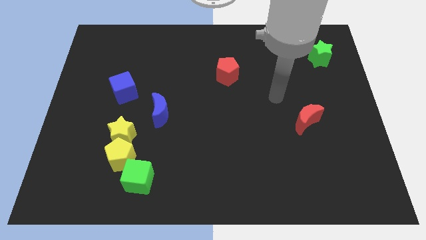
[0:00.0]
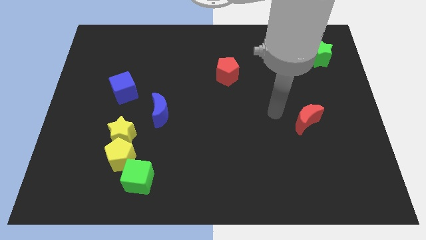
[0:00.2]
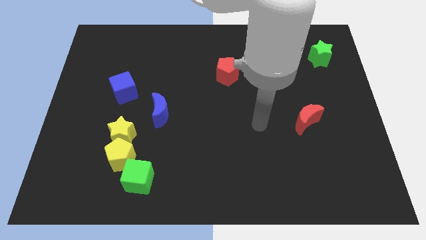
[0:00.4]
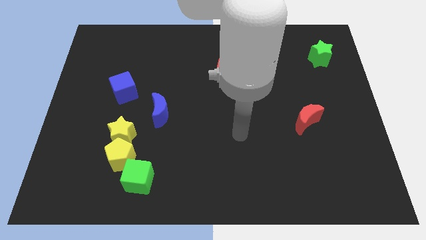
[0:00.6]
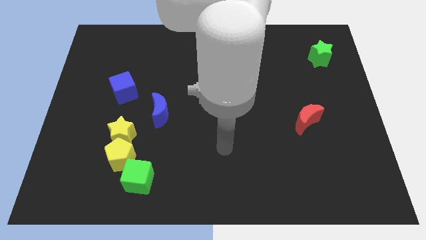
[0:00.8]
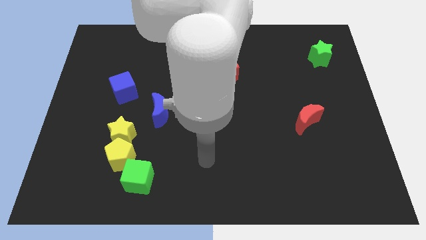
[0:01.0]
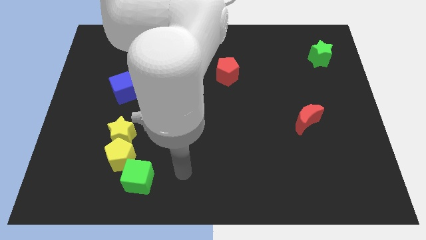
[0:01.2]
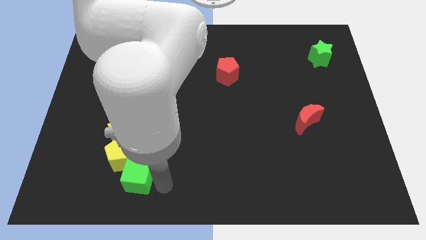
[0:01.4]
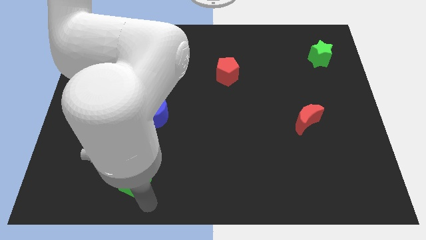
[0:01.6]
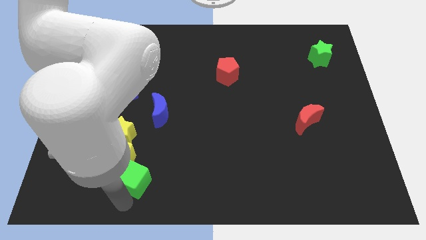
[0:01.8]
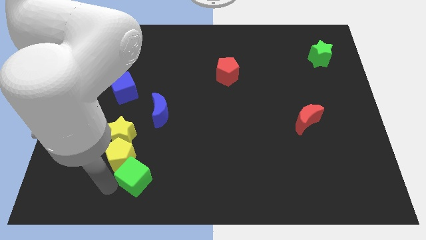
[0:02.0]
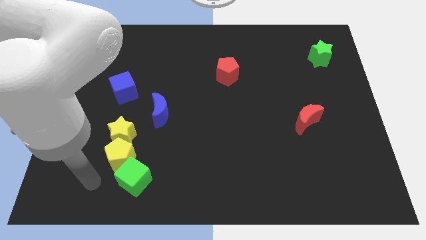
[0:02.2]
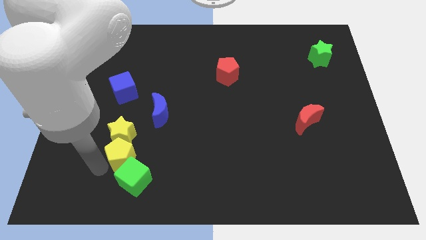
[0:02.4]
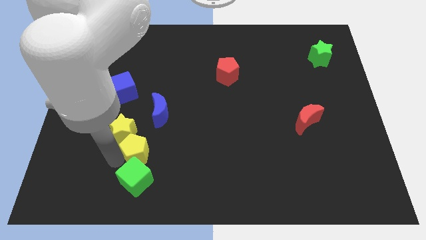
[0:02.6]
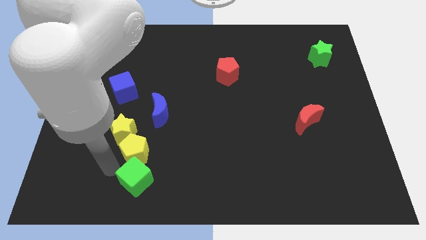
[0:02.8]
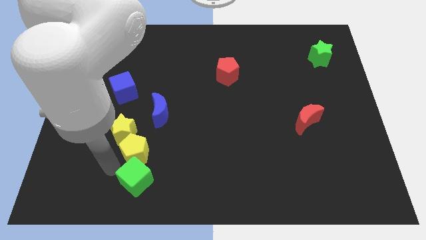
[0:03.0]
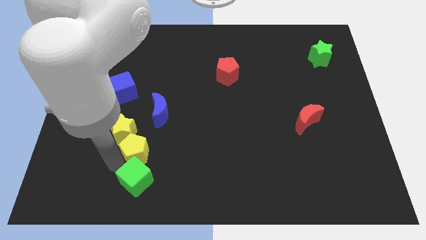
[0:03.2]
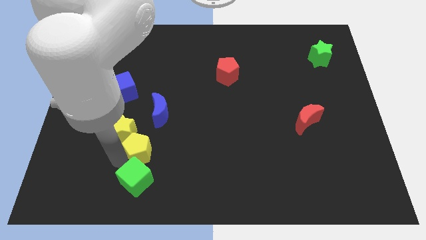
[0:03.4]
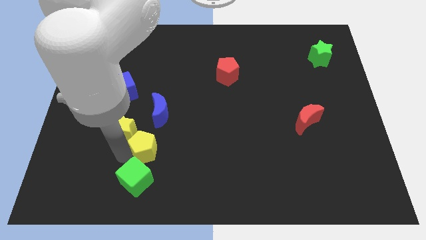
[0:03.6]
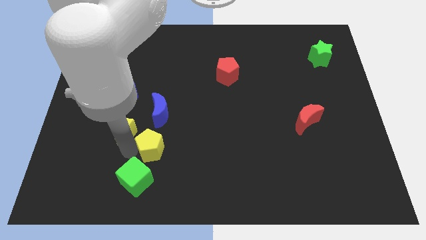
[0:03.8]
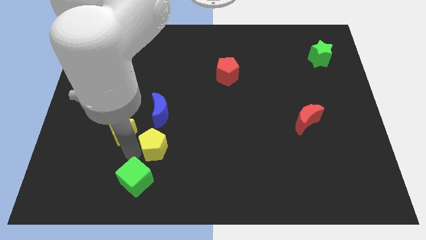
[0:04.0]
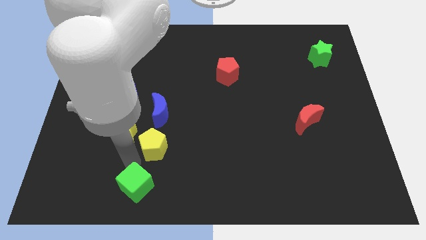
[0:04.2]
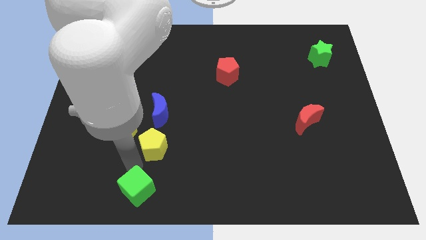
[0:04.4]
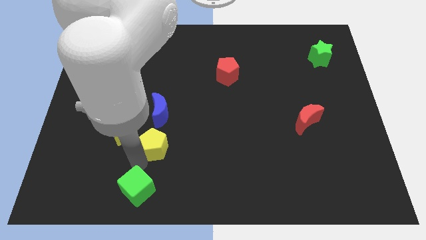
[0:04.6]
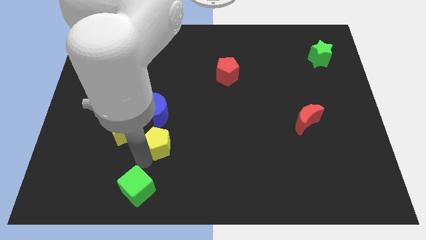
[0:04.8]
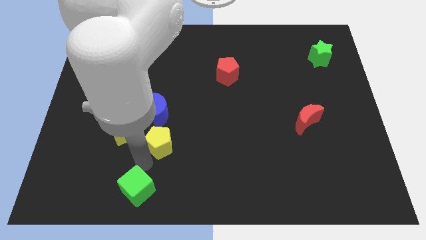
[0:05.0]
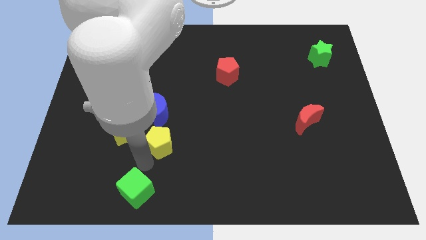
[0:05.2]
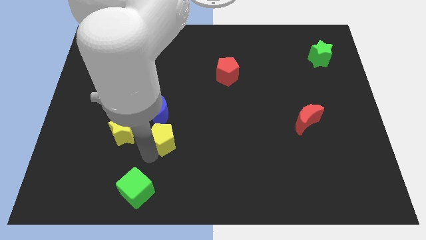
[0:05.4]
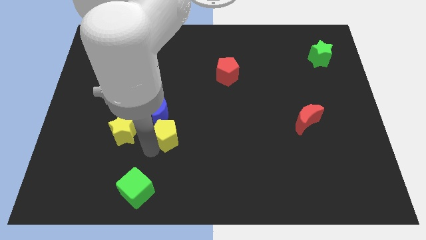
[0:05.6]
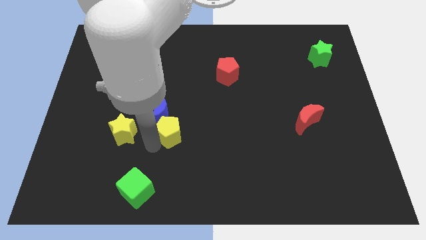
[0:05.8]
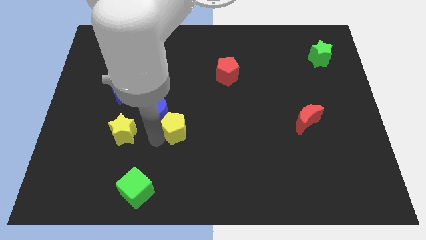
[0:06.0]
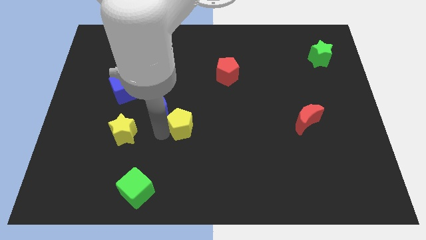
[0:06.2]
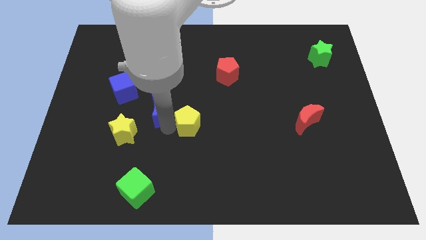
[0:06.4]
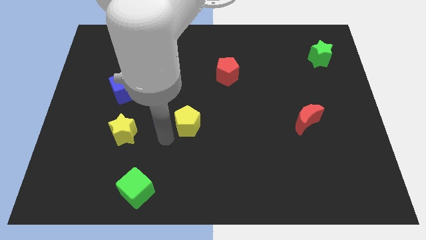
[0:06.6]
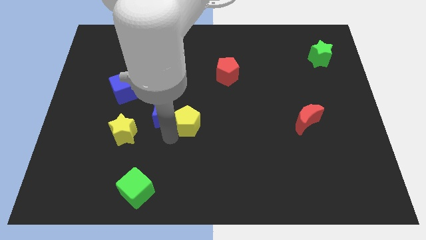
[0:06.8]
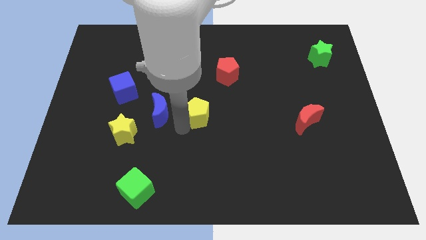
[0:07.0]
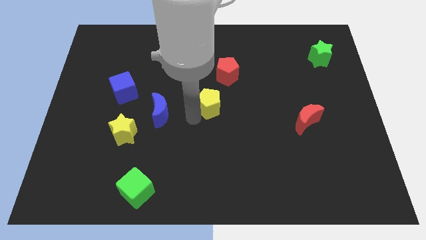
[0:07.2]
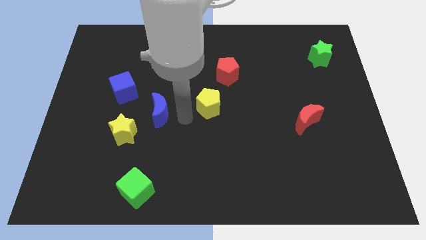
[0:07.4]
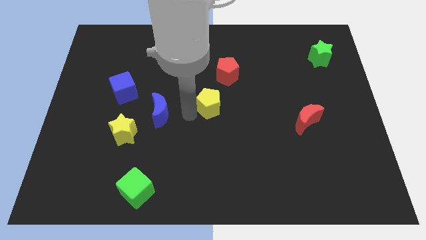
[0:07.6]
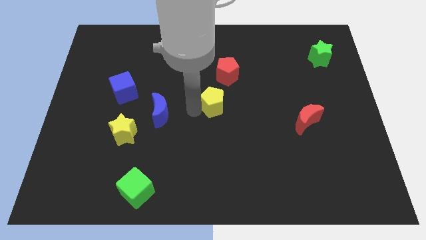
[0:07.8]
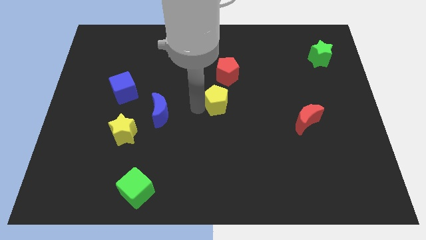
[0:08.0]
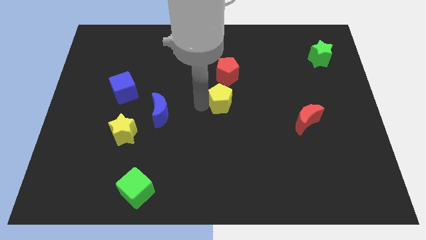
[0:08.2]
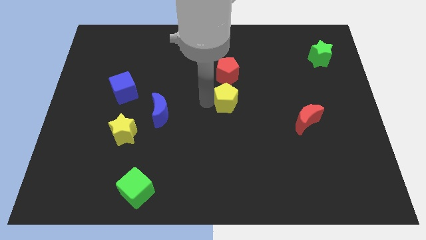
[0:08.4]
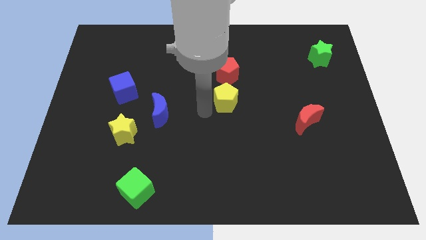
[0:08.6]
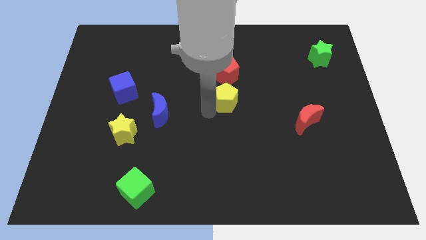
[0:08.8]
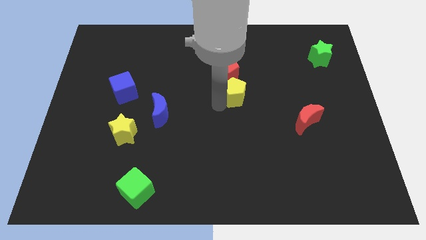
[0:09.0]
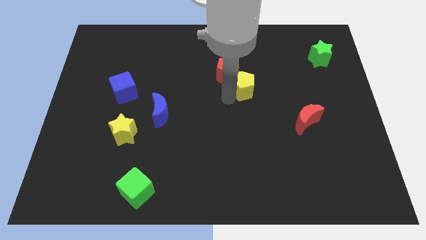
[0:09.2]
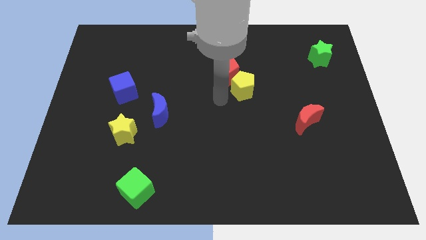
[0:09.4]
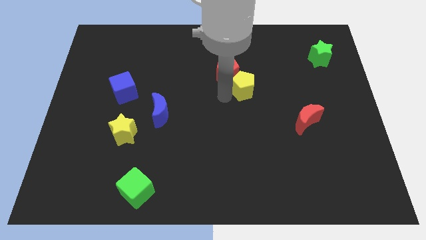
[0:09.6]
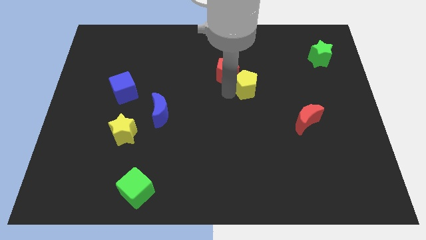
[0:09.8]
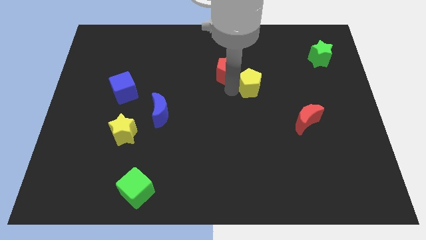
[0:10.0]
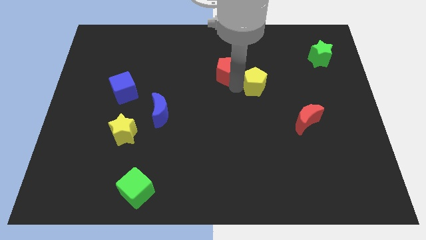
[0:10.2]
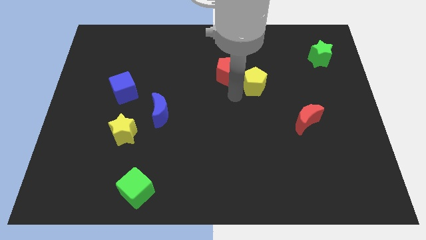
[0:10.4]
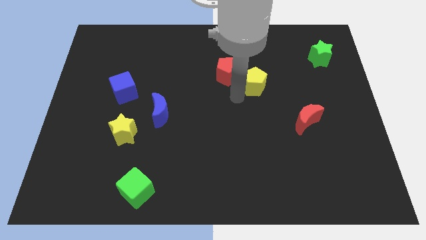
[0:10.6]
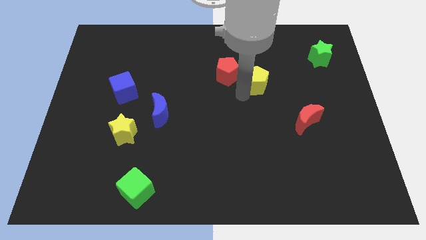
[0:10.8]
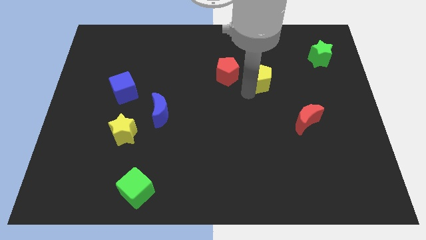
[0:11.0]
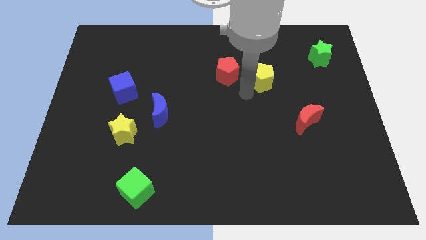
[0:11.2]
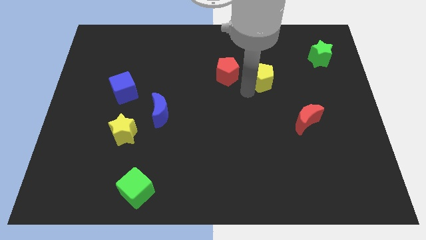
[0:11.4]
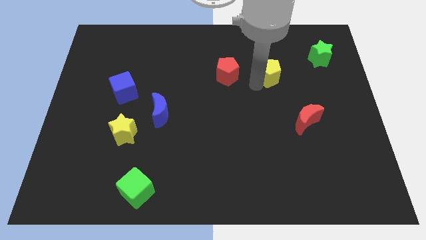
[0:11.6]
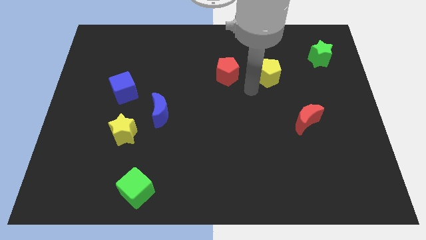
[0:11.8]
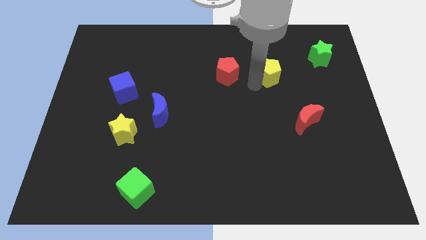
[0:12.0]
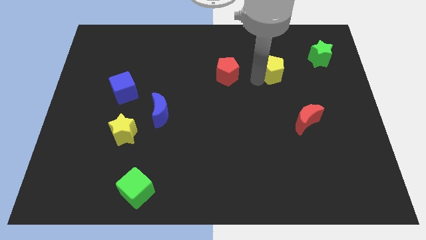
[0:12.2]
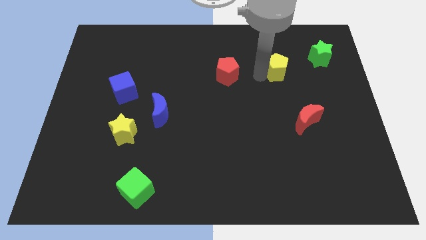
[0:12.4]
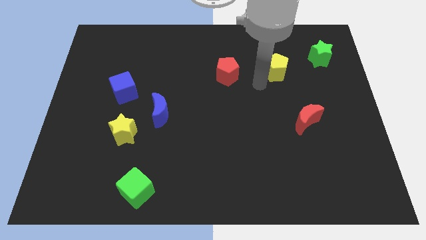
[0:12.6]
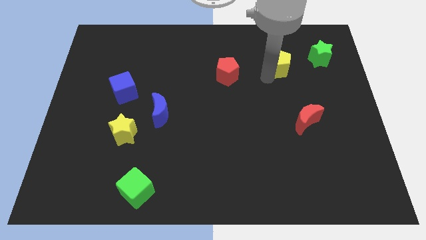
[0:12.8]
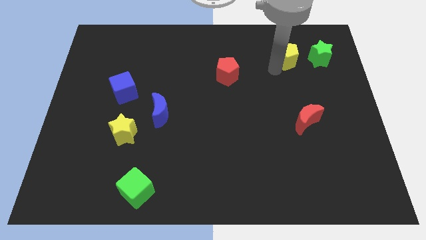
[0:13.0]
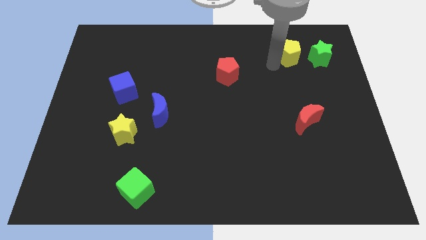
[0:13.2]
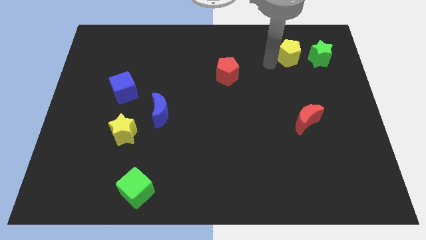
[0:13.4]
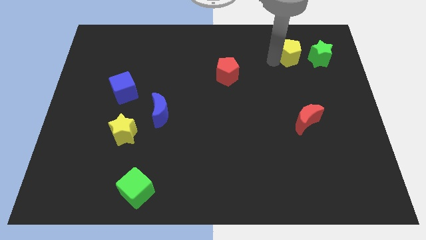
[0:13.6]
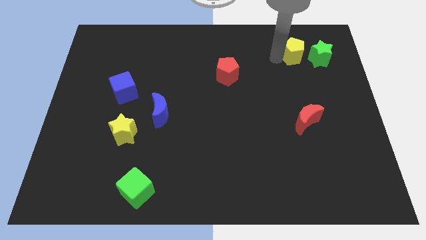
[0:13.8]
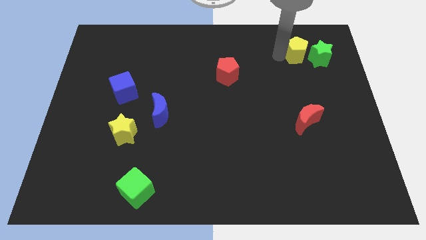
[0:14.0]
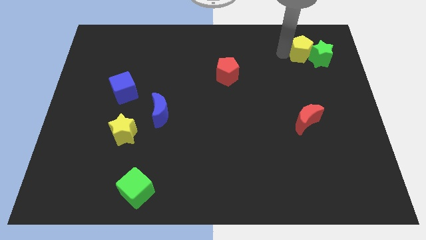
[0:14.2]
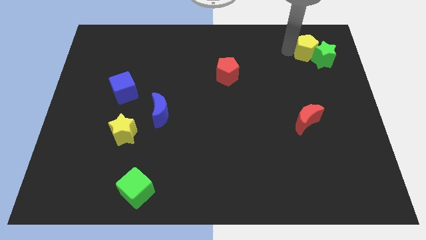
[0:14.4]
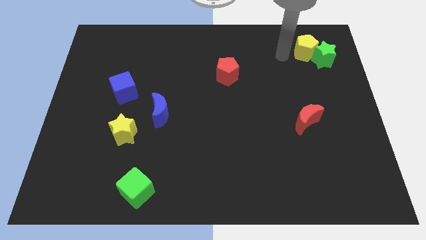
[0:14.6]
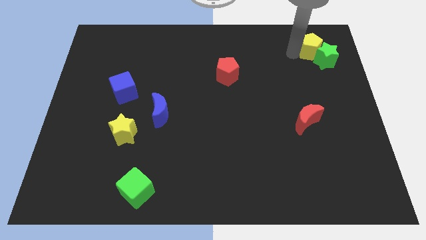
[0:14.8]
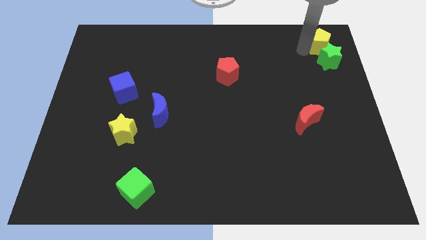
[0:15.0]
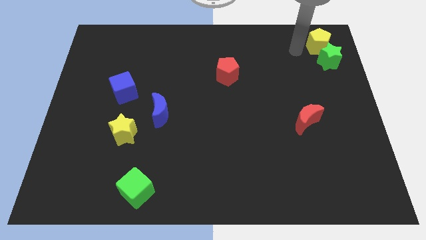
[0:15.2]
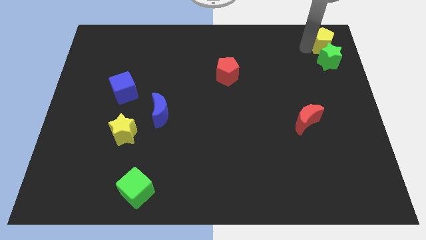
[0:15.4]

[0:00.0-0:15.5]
move the yellow pentagon to the top right
